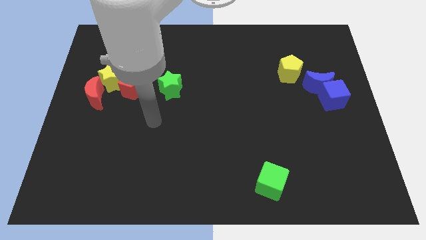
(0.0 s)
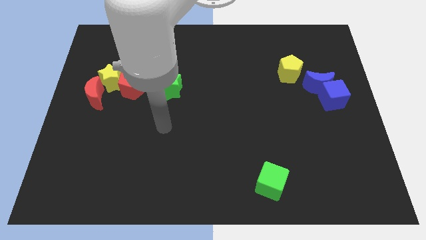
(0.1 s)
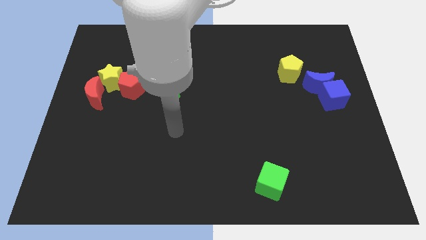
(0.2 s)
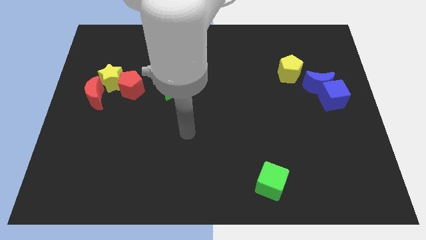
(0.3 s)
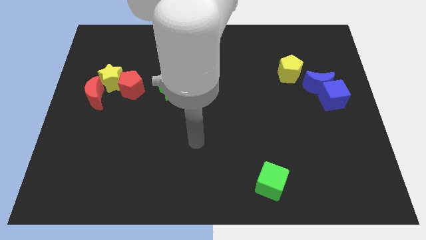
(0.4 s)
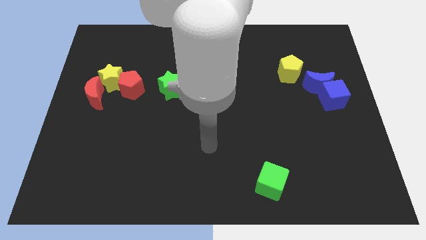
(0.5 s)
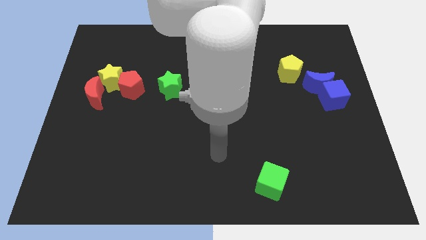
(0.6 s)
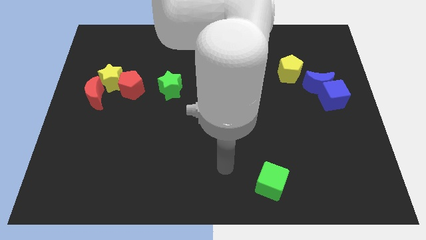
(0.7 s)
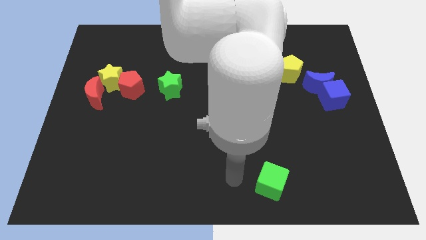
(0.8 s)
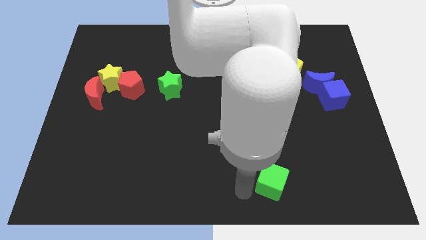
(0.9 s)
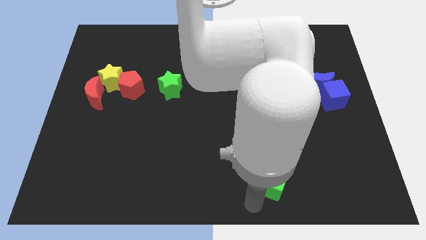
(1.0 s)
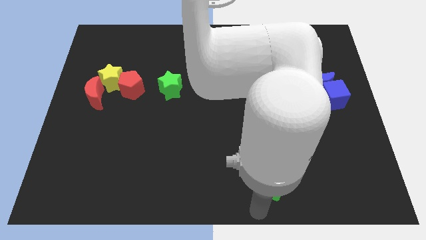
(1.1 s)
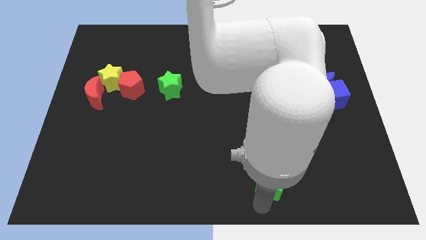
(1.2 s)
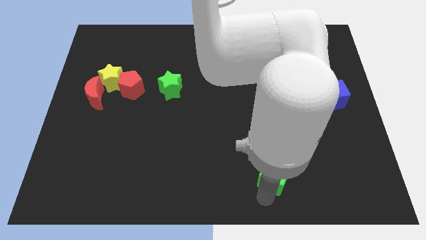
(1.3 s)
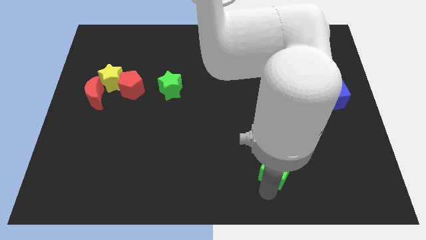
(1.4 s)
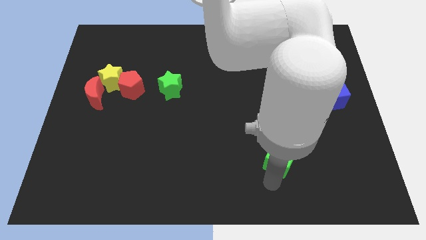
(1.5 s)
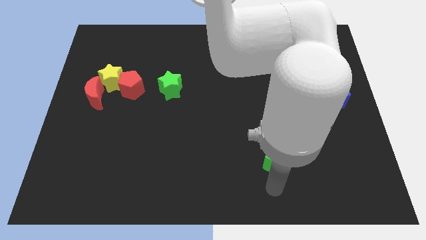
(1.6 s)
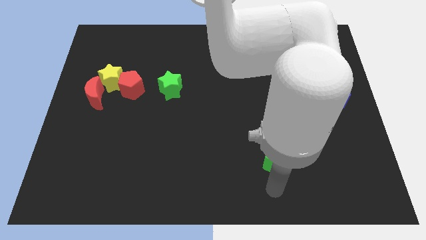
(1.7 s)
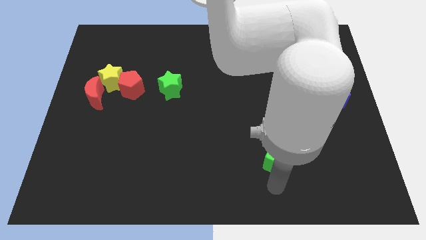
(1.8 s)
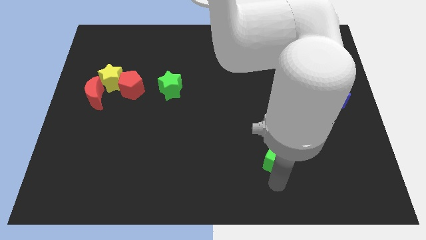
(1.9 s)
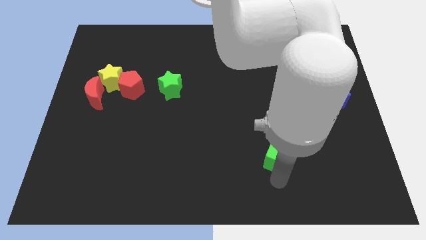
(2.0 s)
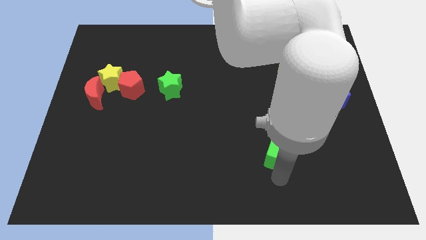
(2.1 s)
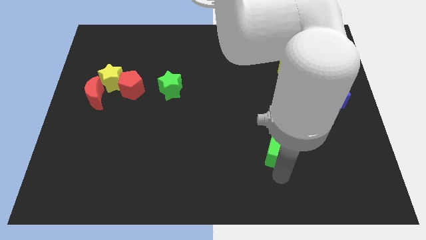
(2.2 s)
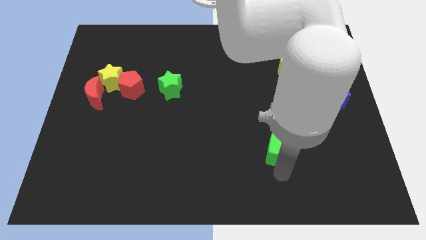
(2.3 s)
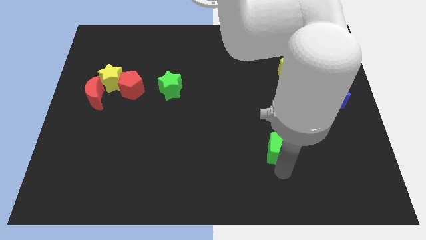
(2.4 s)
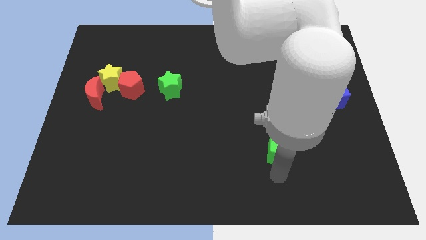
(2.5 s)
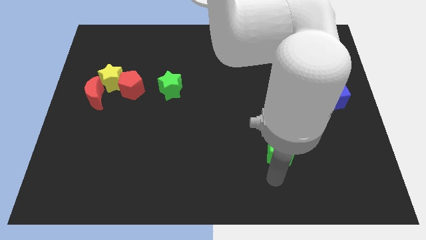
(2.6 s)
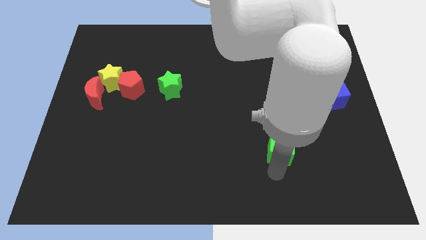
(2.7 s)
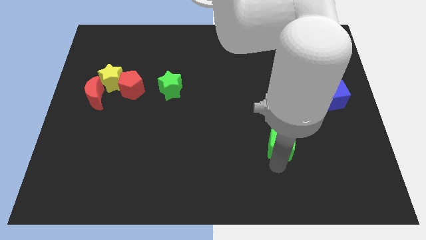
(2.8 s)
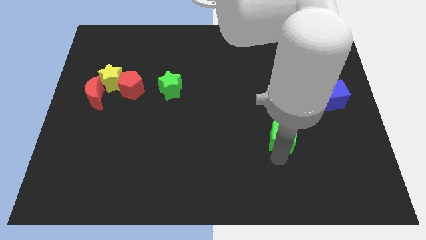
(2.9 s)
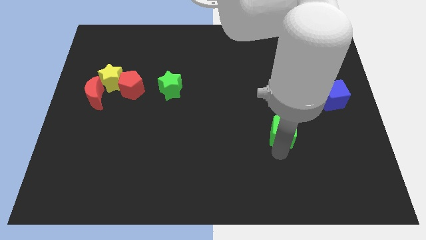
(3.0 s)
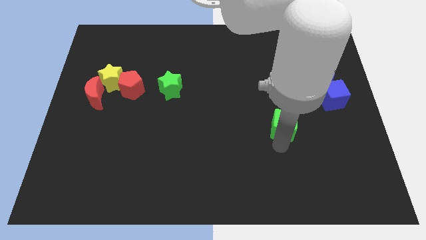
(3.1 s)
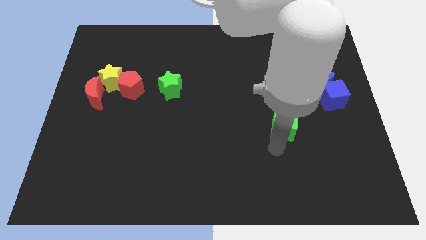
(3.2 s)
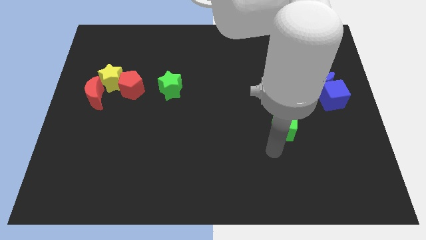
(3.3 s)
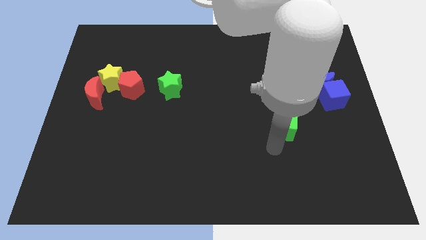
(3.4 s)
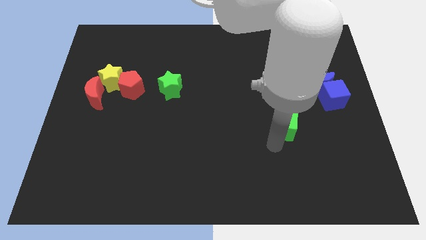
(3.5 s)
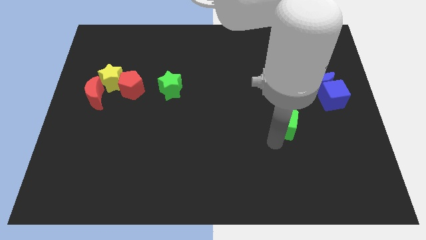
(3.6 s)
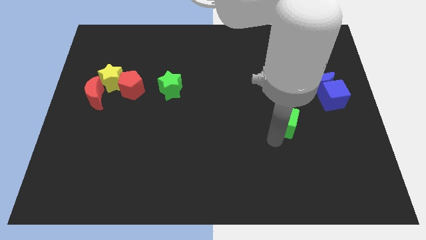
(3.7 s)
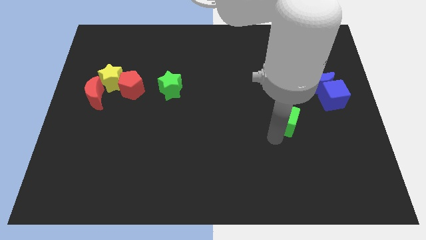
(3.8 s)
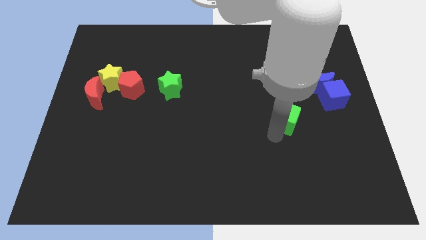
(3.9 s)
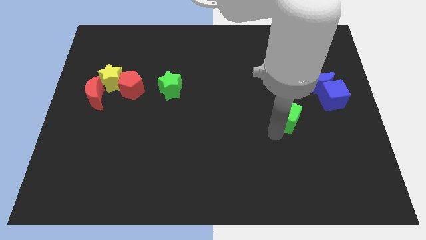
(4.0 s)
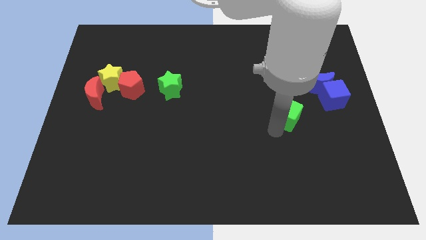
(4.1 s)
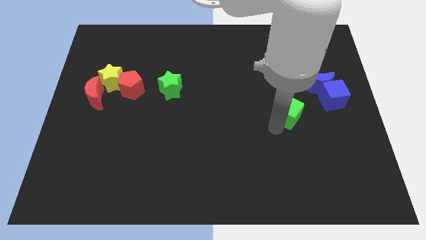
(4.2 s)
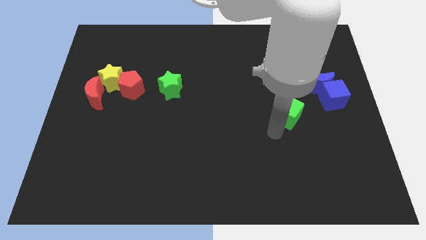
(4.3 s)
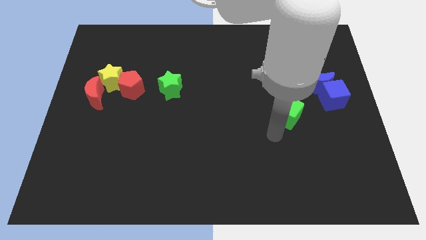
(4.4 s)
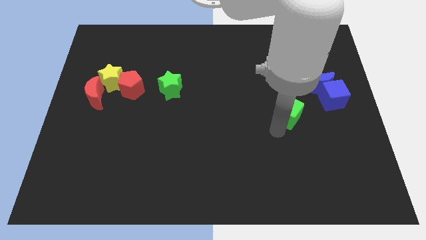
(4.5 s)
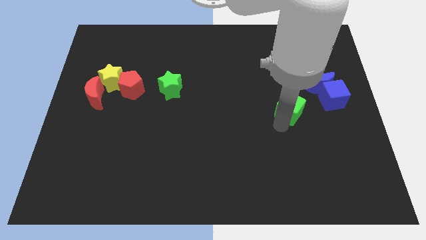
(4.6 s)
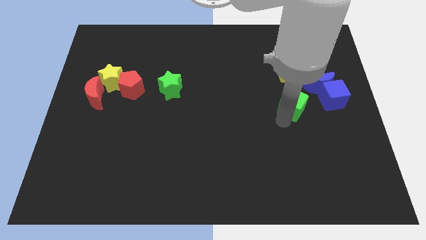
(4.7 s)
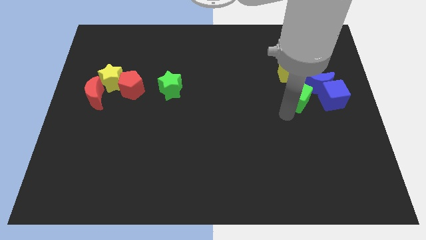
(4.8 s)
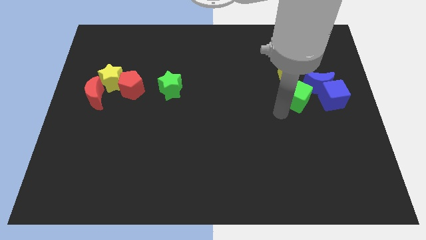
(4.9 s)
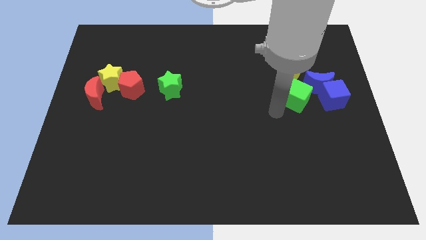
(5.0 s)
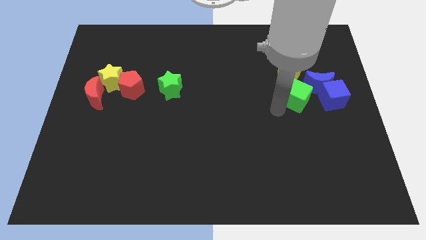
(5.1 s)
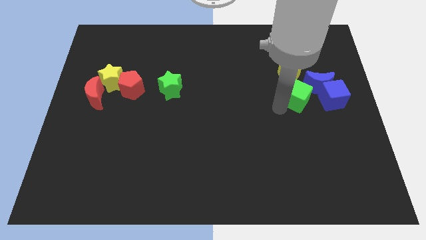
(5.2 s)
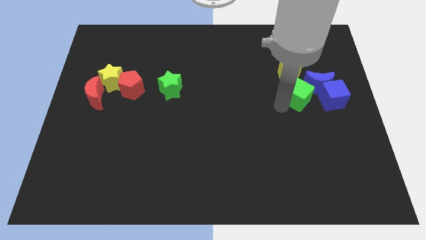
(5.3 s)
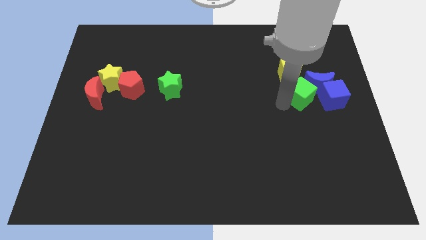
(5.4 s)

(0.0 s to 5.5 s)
slide the green cube next to the blue moon

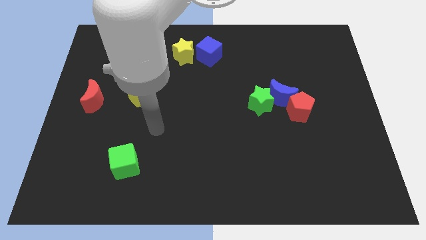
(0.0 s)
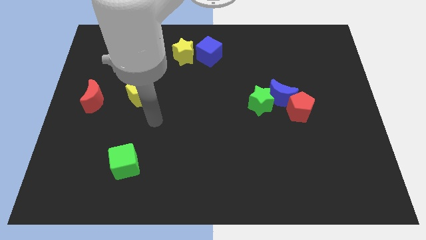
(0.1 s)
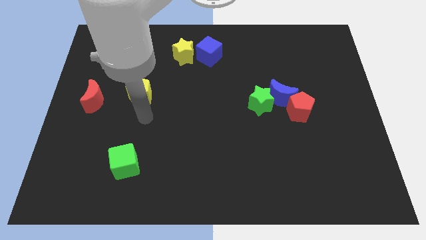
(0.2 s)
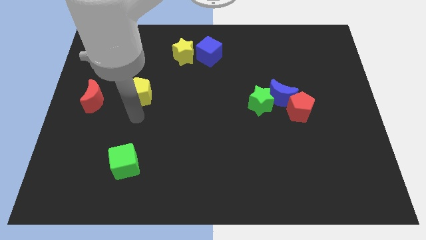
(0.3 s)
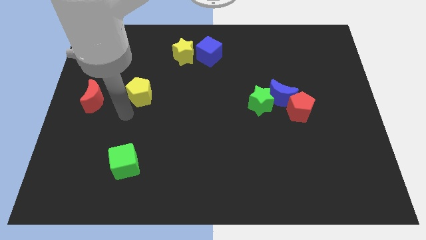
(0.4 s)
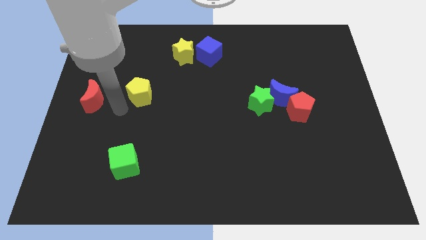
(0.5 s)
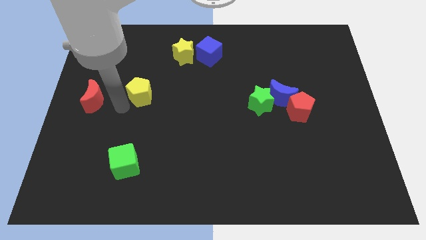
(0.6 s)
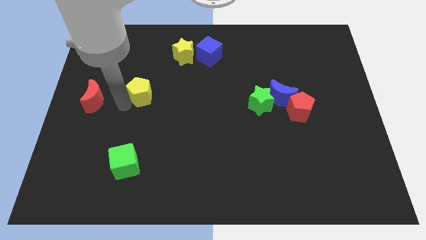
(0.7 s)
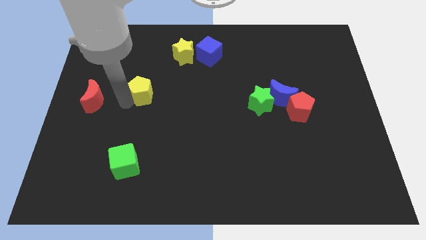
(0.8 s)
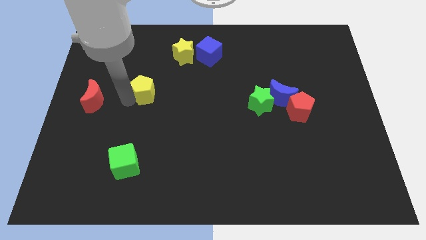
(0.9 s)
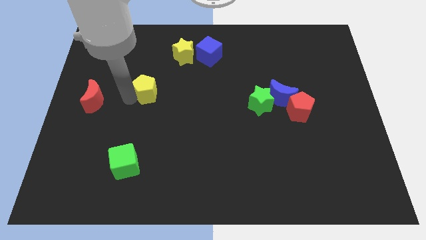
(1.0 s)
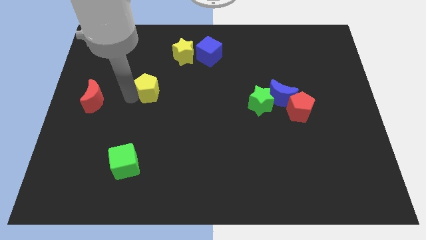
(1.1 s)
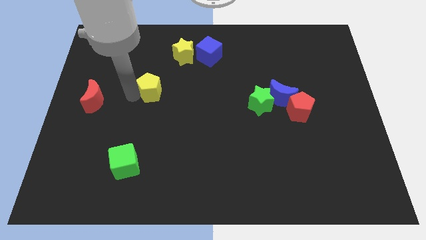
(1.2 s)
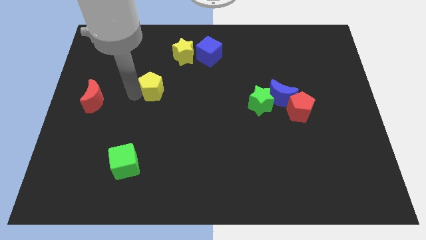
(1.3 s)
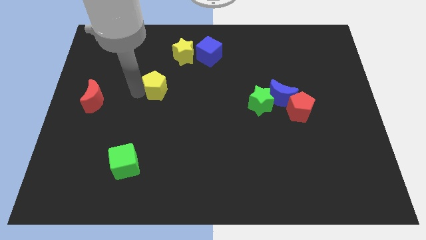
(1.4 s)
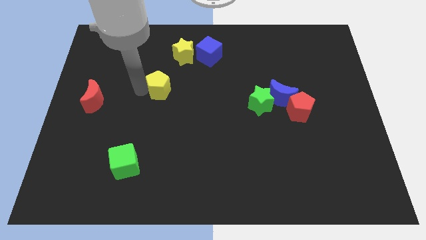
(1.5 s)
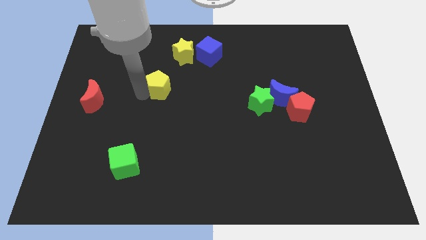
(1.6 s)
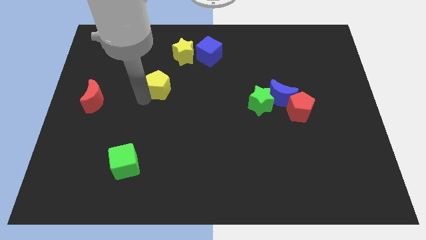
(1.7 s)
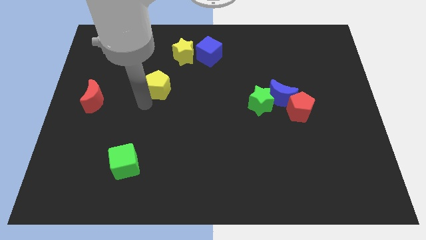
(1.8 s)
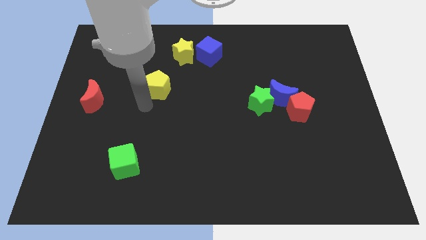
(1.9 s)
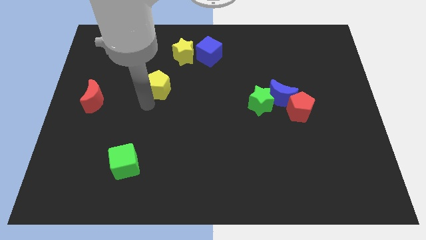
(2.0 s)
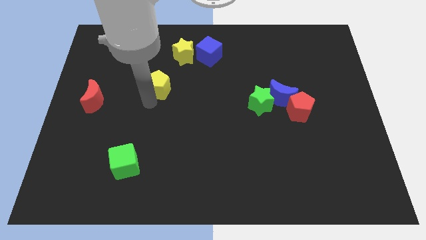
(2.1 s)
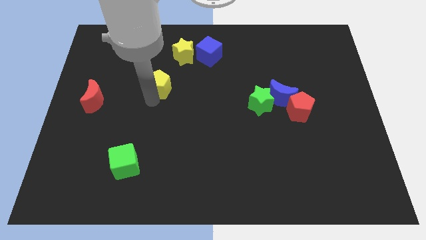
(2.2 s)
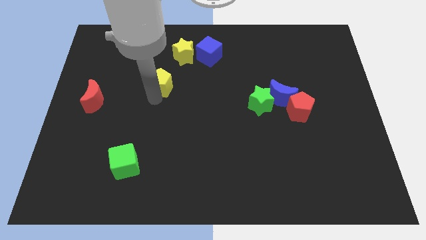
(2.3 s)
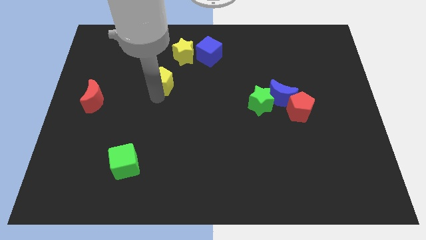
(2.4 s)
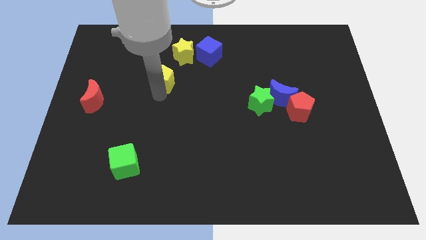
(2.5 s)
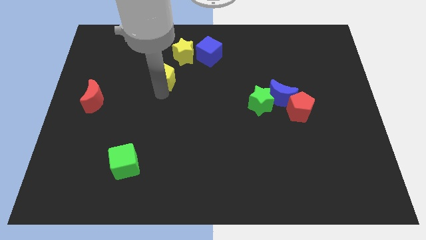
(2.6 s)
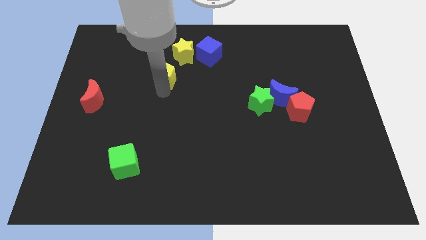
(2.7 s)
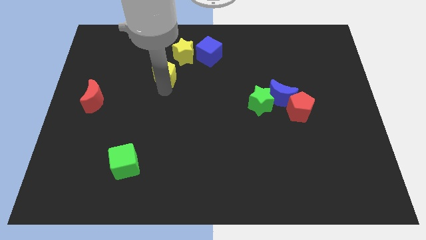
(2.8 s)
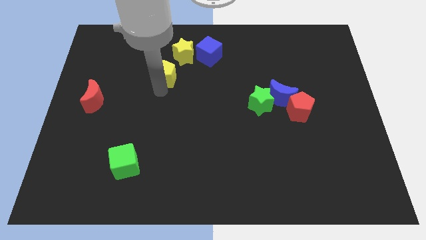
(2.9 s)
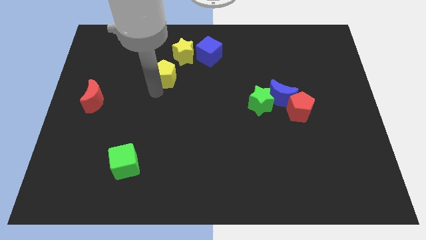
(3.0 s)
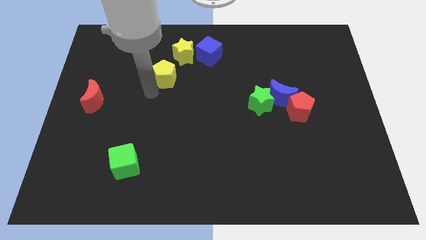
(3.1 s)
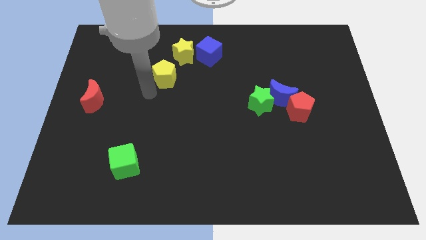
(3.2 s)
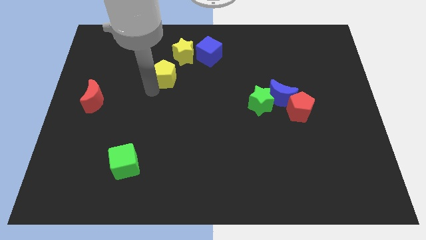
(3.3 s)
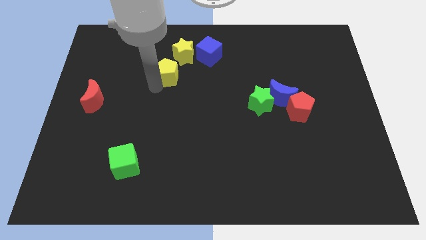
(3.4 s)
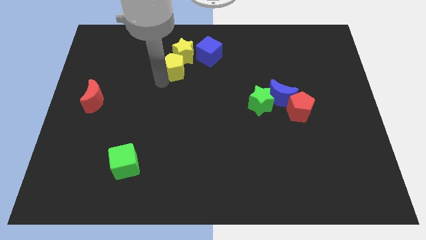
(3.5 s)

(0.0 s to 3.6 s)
move the yellow pentagon next to the yellow star
